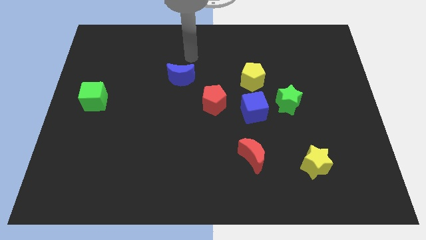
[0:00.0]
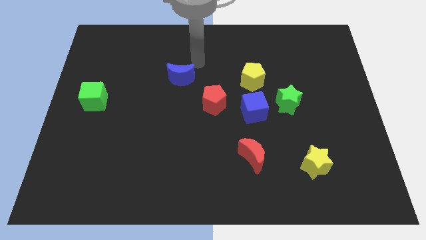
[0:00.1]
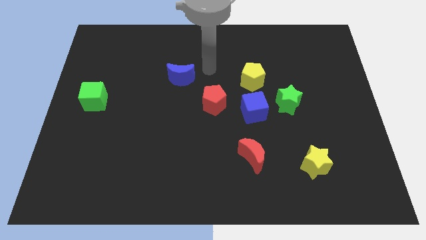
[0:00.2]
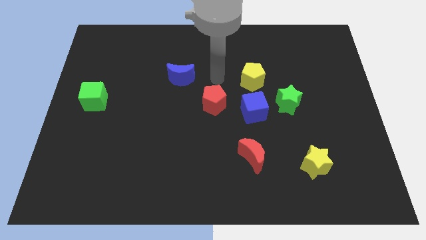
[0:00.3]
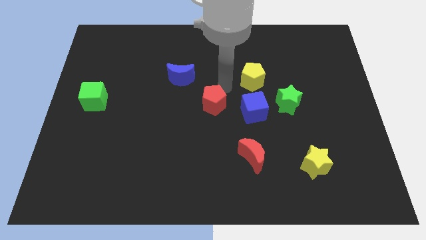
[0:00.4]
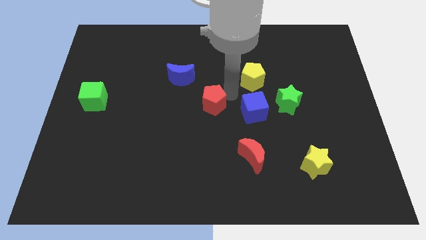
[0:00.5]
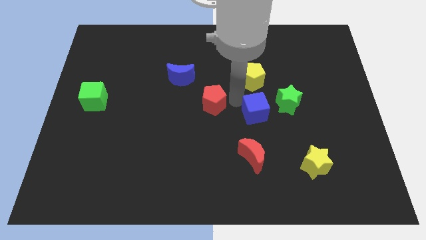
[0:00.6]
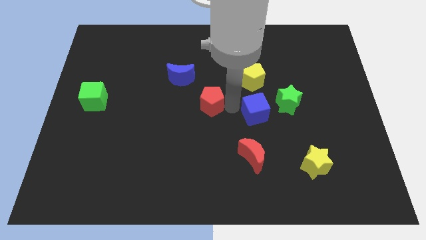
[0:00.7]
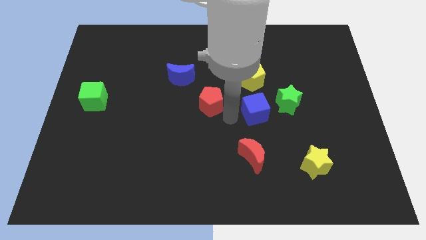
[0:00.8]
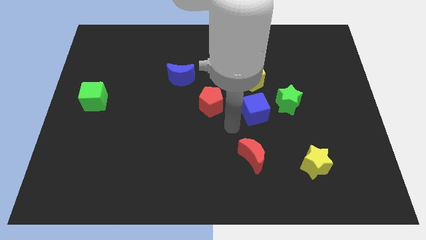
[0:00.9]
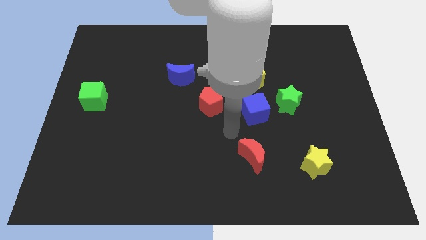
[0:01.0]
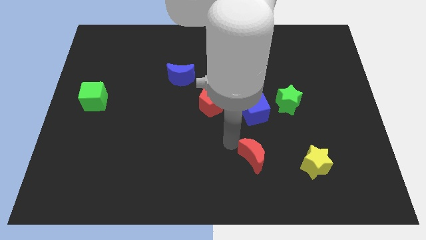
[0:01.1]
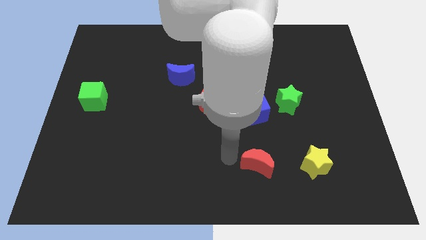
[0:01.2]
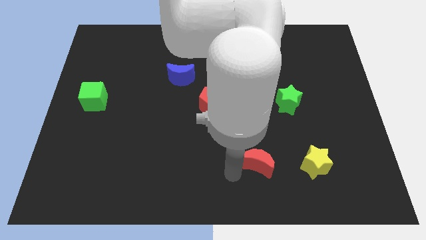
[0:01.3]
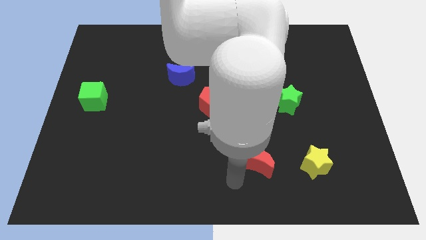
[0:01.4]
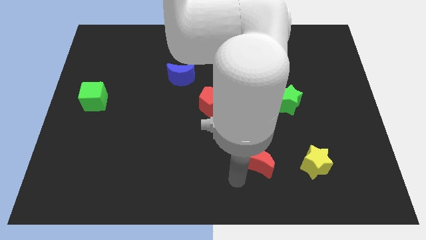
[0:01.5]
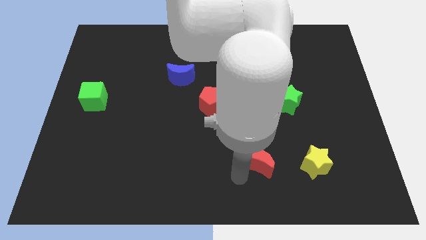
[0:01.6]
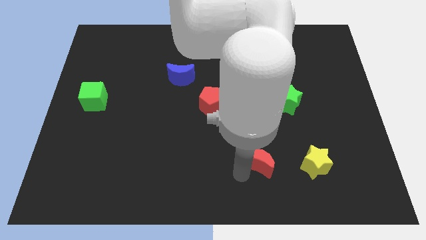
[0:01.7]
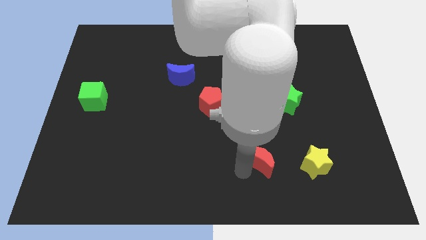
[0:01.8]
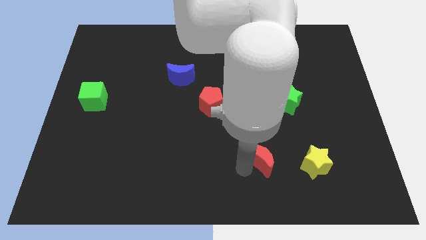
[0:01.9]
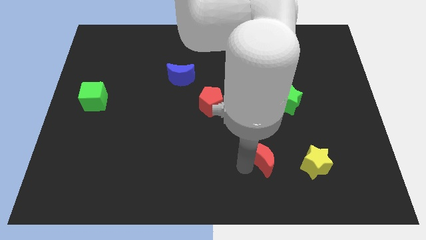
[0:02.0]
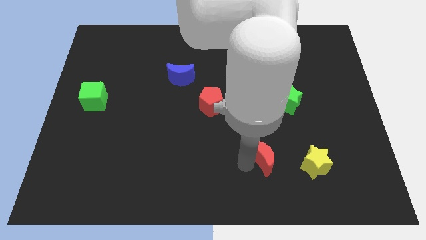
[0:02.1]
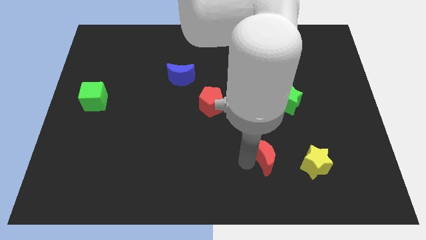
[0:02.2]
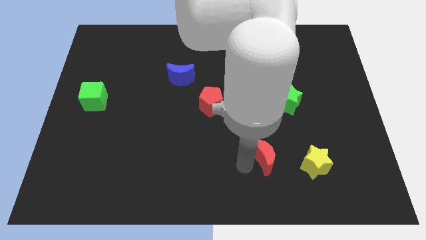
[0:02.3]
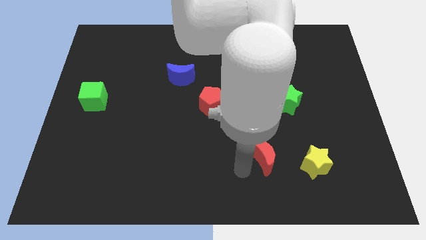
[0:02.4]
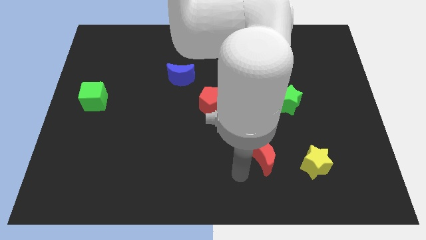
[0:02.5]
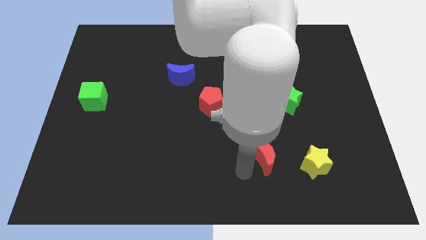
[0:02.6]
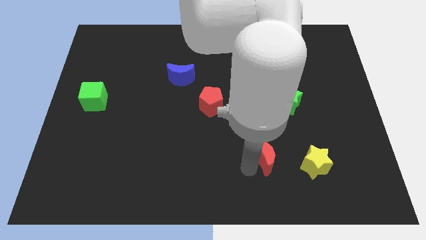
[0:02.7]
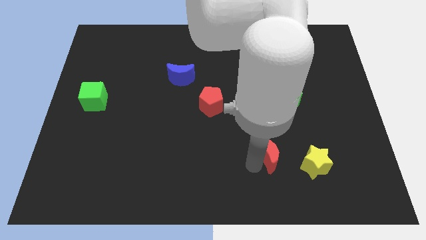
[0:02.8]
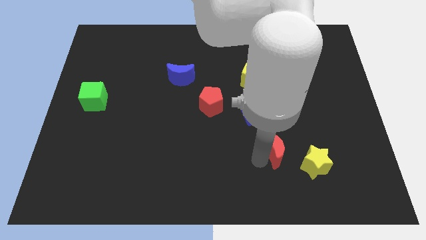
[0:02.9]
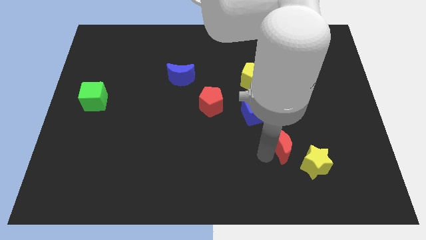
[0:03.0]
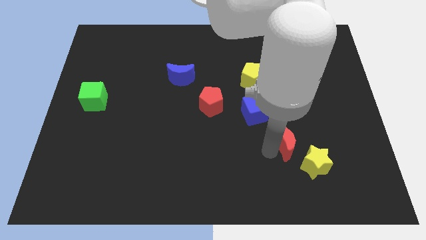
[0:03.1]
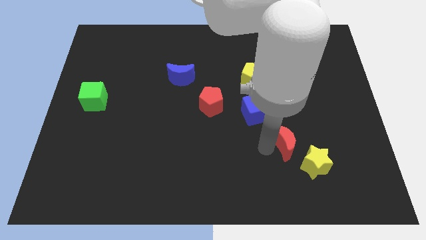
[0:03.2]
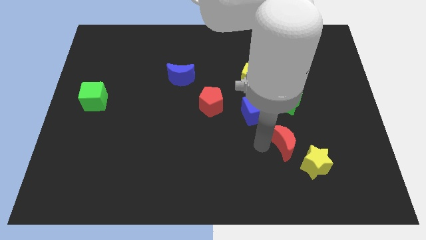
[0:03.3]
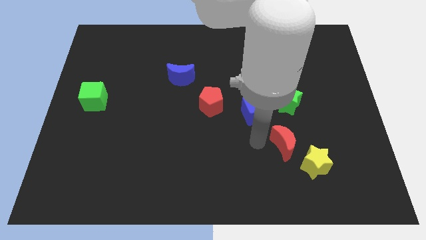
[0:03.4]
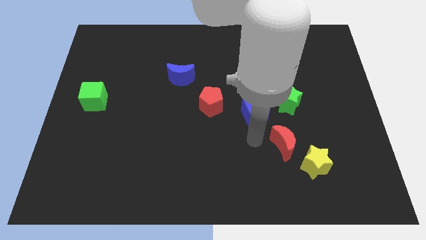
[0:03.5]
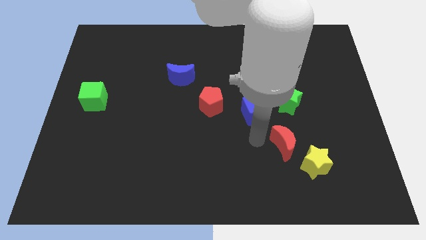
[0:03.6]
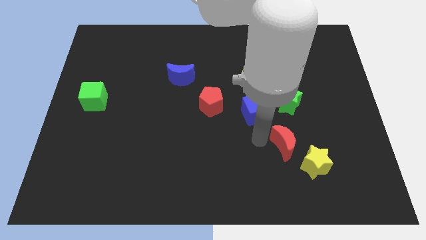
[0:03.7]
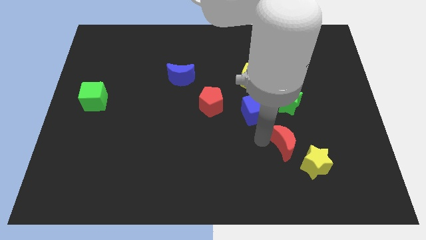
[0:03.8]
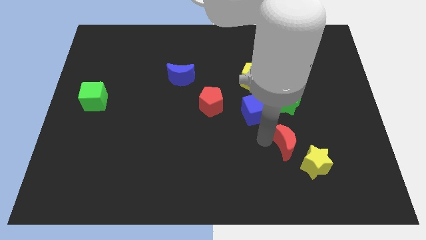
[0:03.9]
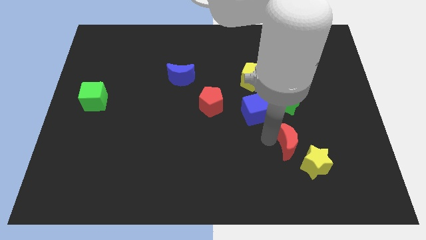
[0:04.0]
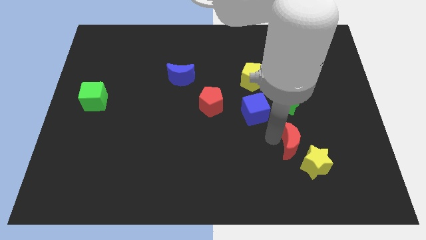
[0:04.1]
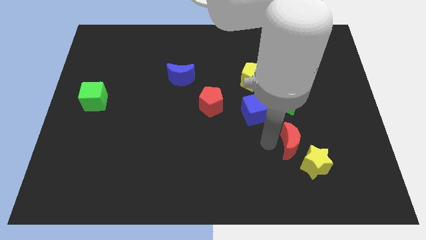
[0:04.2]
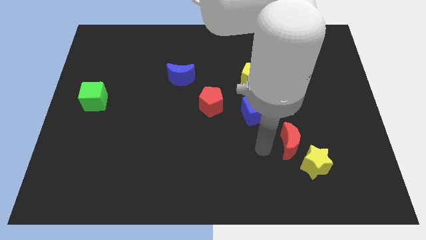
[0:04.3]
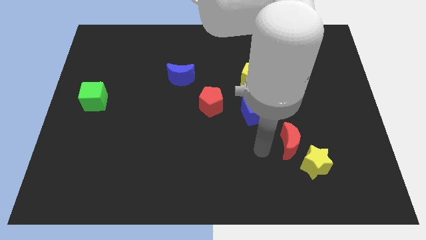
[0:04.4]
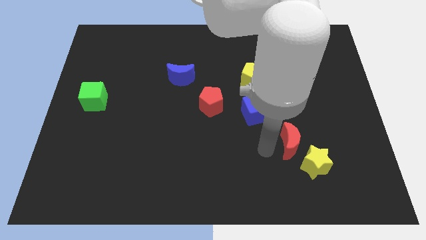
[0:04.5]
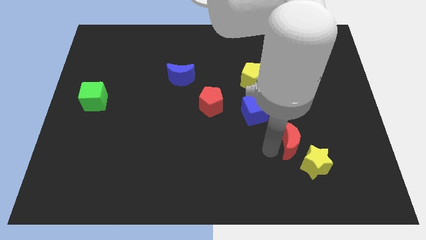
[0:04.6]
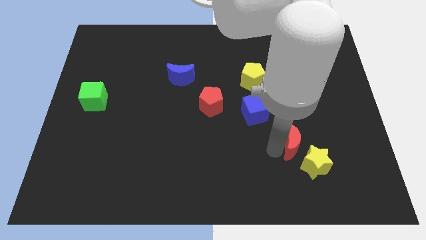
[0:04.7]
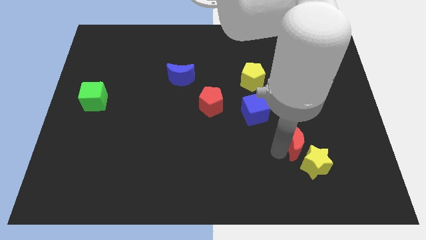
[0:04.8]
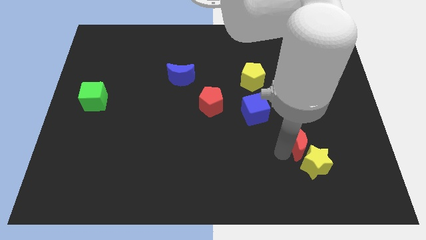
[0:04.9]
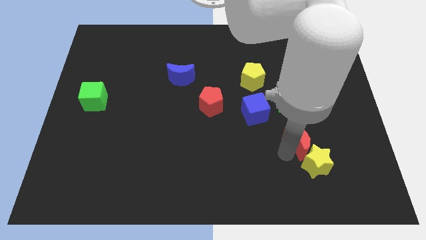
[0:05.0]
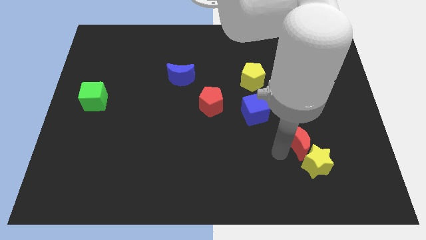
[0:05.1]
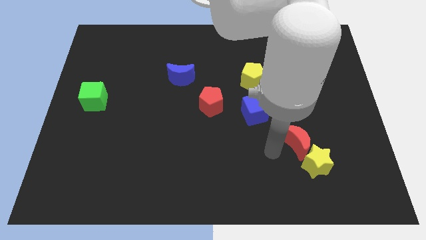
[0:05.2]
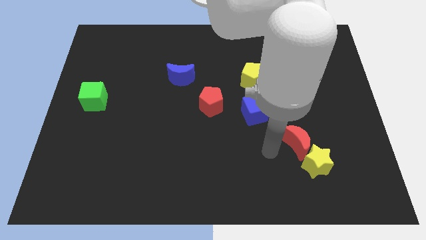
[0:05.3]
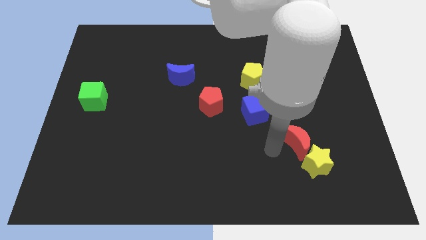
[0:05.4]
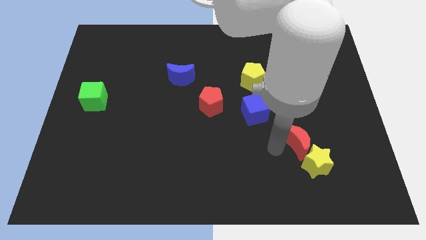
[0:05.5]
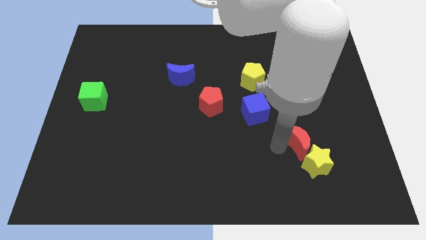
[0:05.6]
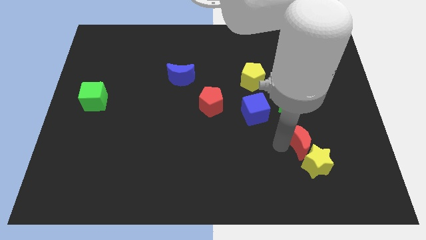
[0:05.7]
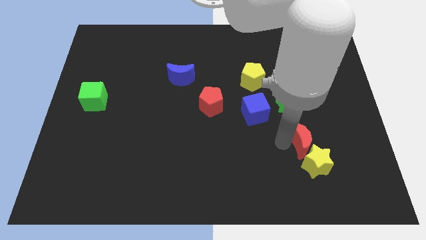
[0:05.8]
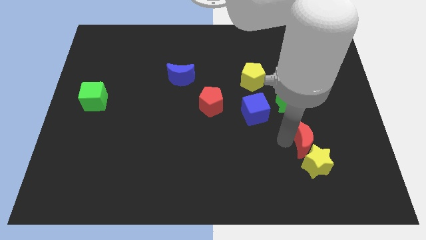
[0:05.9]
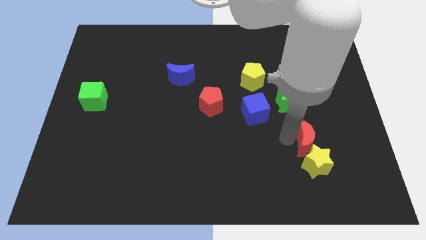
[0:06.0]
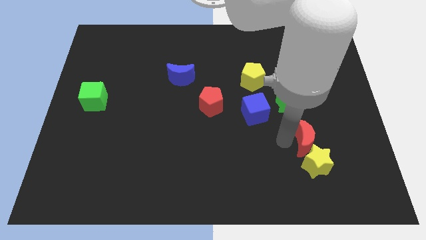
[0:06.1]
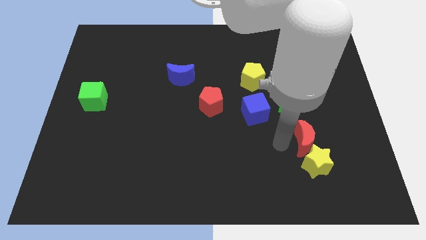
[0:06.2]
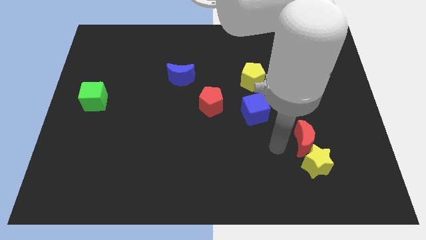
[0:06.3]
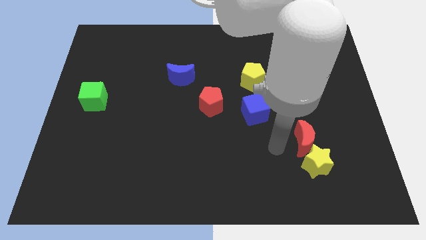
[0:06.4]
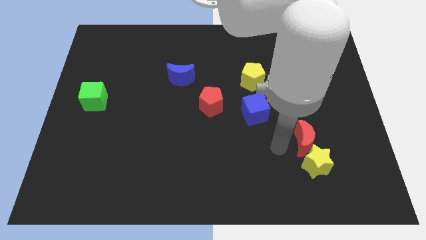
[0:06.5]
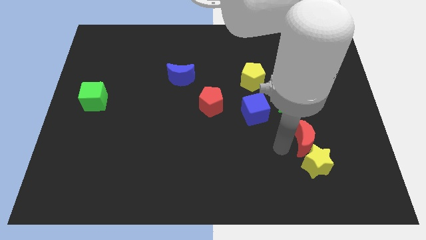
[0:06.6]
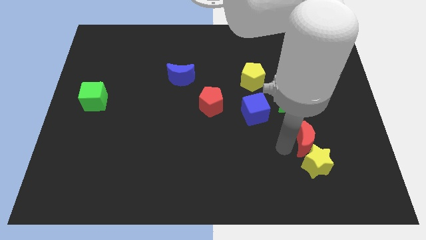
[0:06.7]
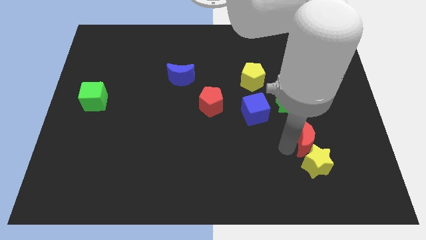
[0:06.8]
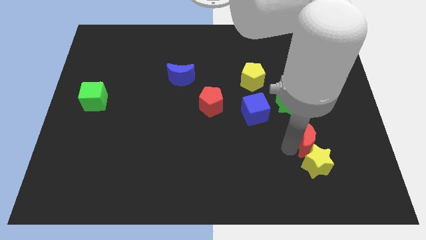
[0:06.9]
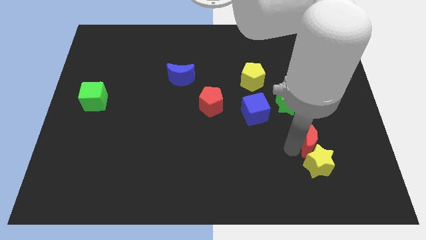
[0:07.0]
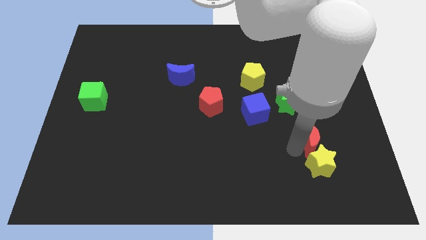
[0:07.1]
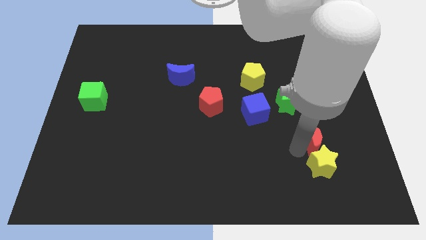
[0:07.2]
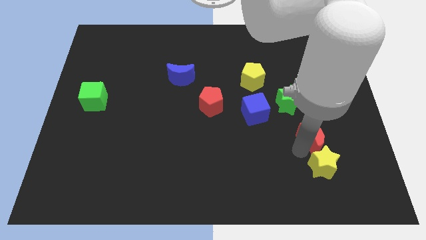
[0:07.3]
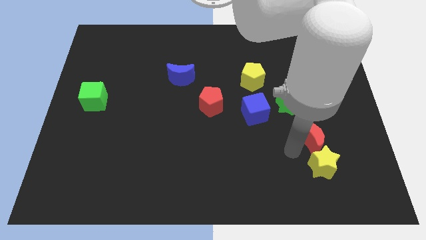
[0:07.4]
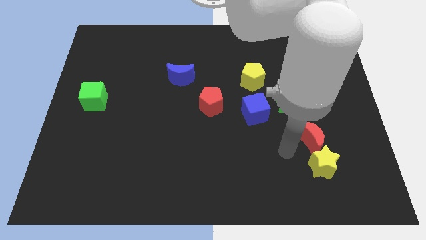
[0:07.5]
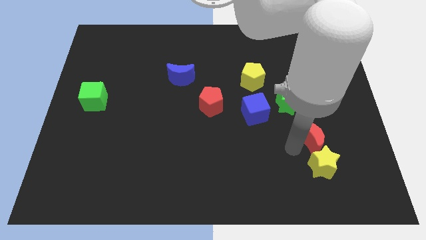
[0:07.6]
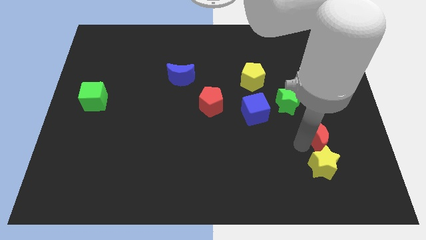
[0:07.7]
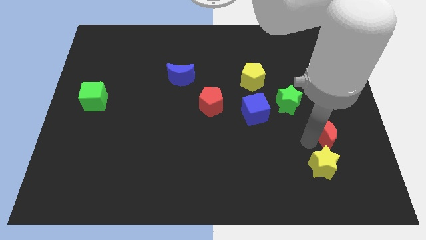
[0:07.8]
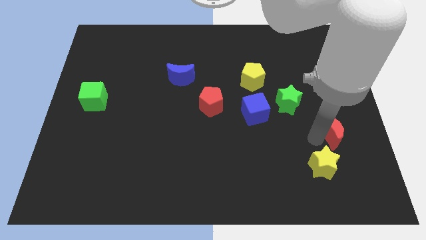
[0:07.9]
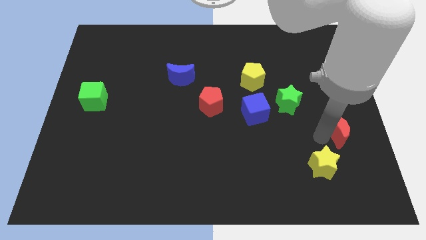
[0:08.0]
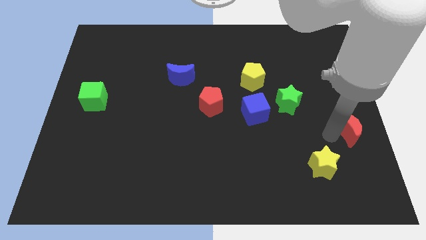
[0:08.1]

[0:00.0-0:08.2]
push the red moon to the right side
